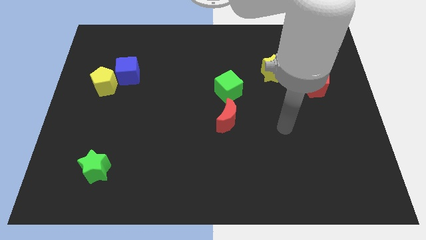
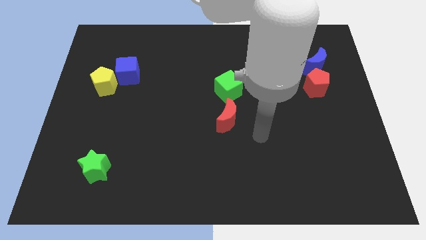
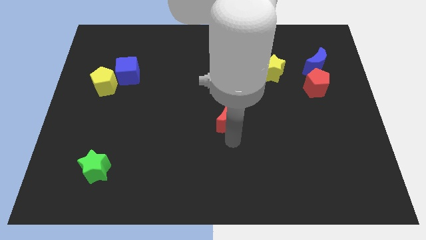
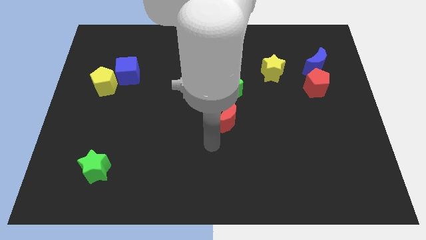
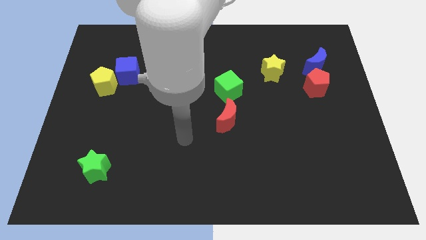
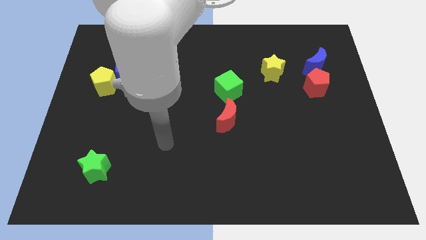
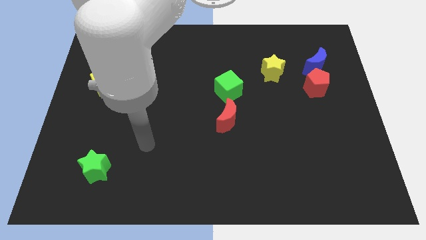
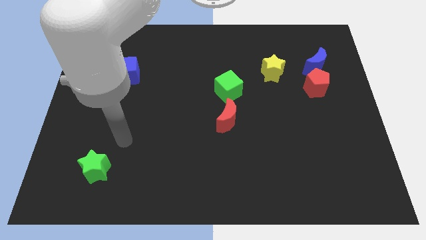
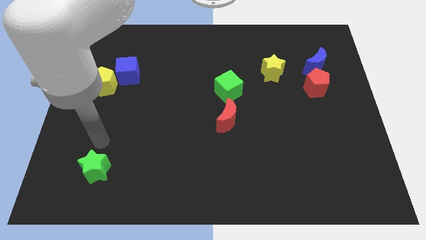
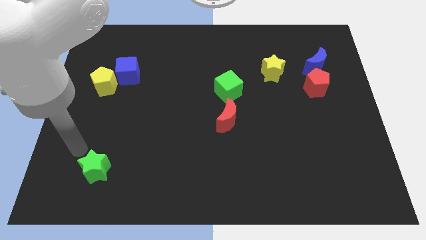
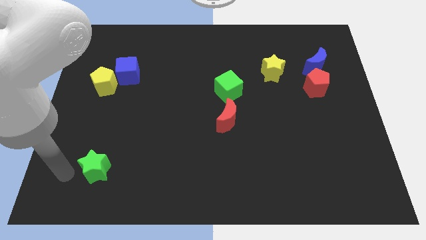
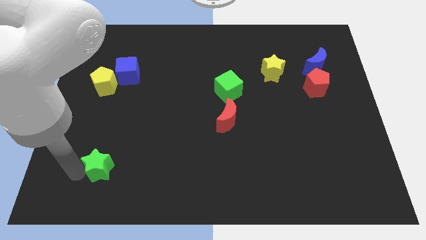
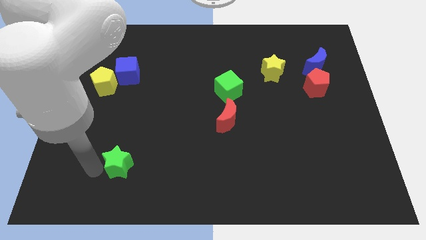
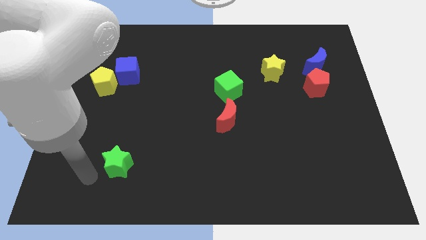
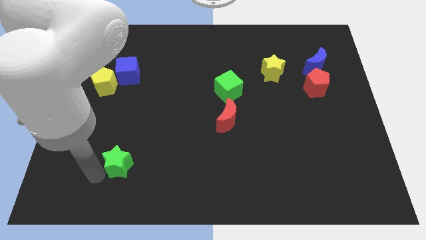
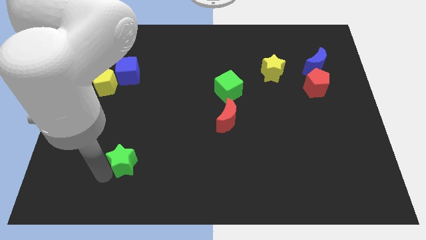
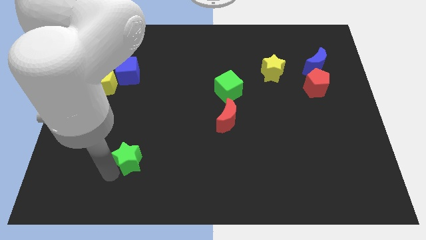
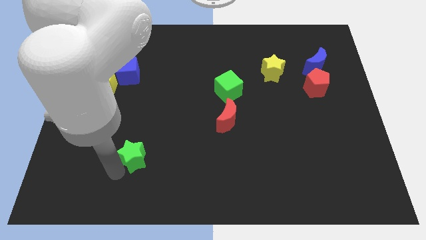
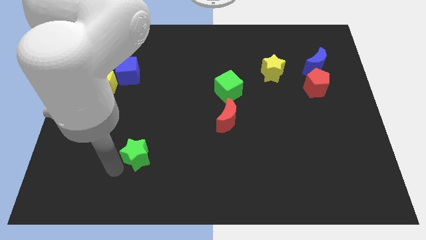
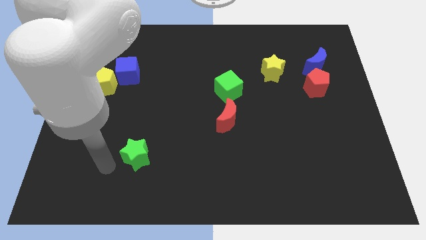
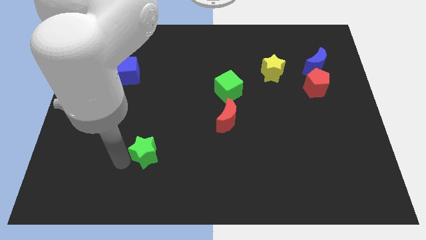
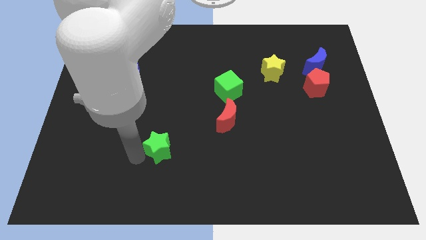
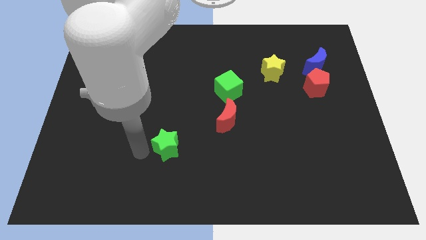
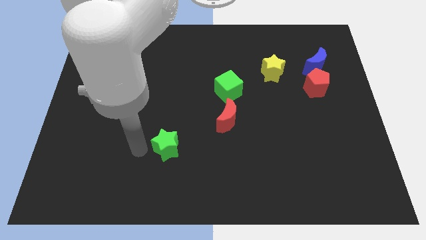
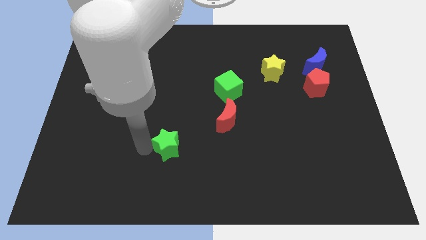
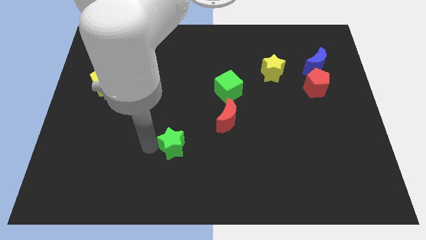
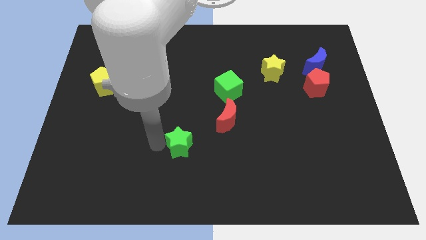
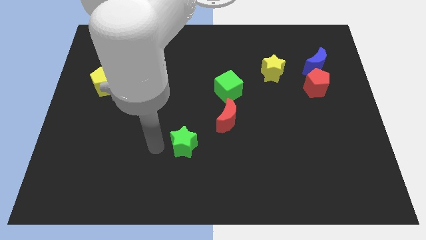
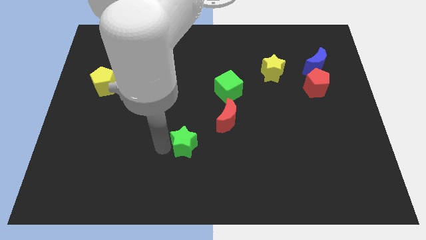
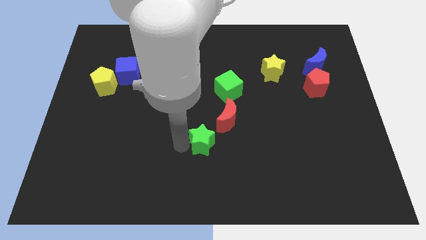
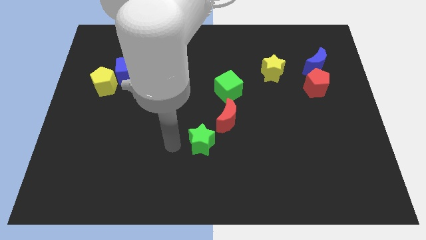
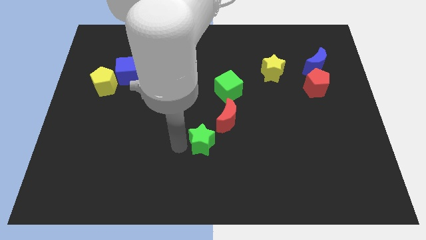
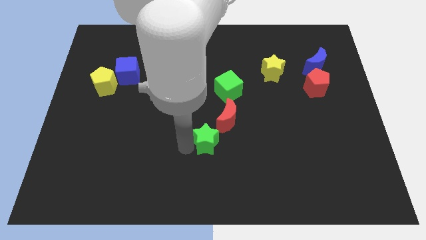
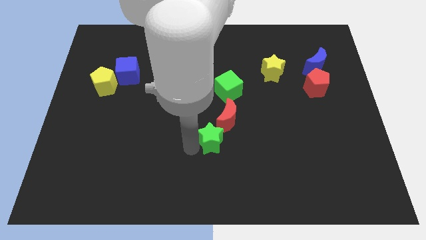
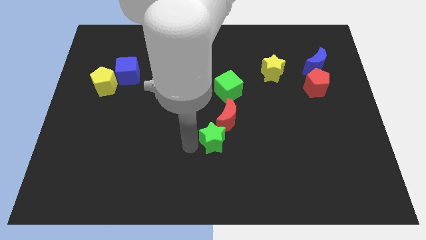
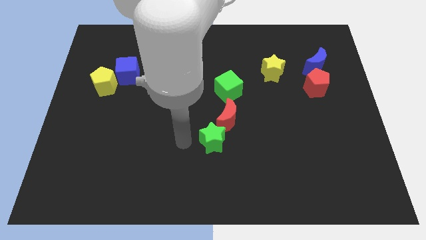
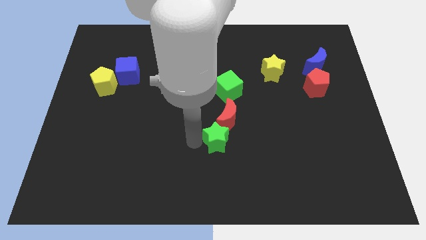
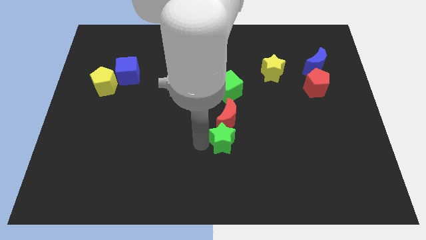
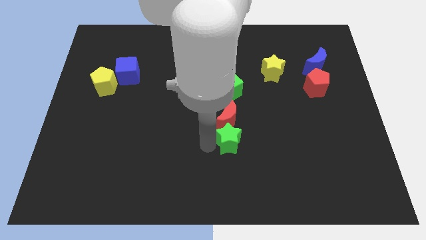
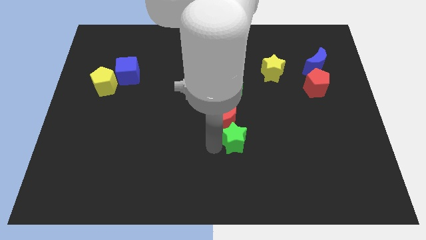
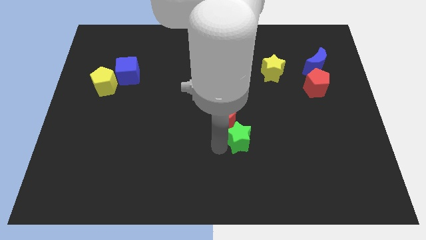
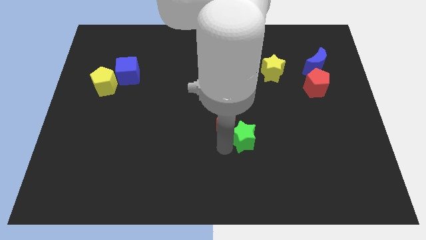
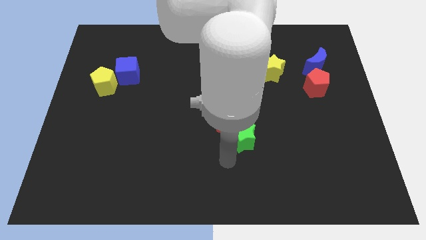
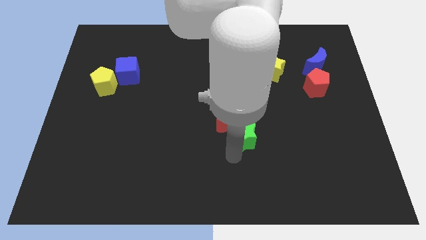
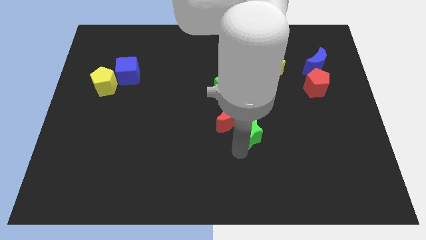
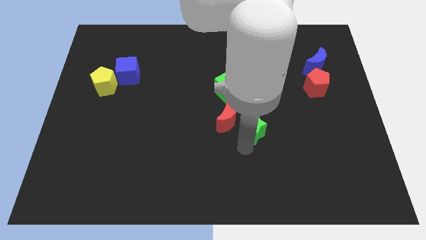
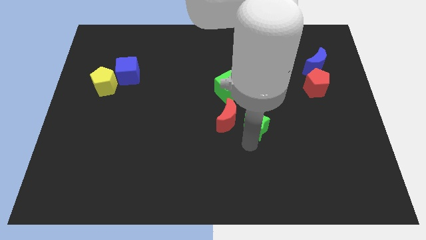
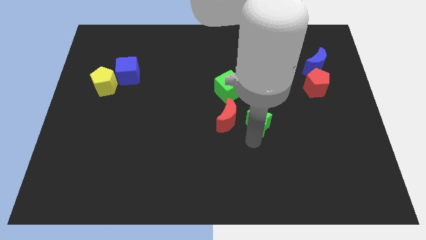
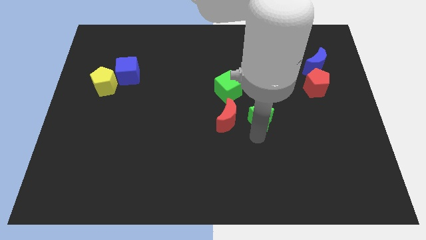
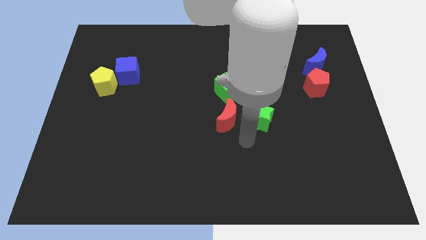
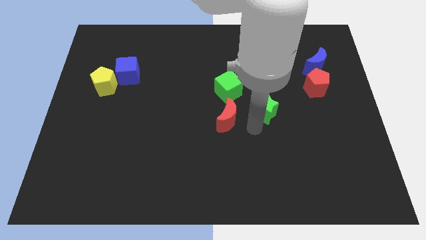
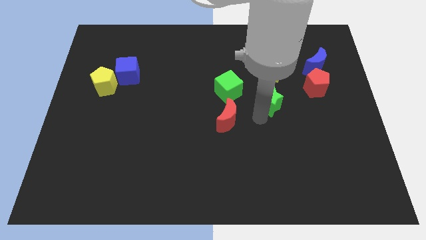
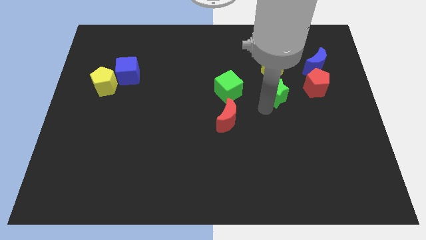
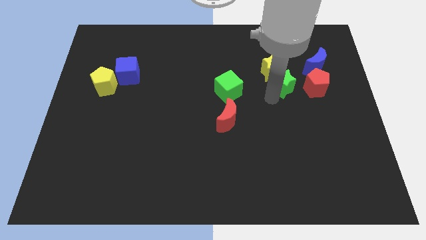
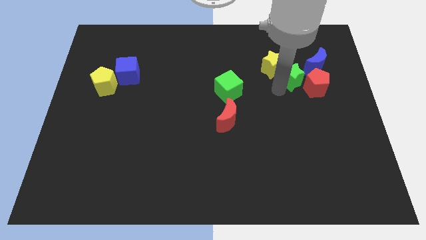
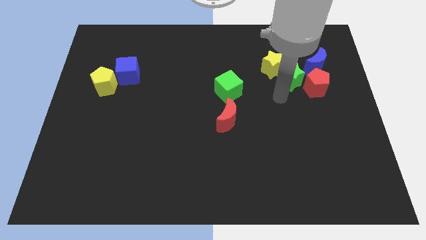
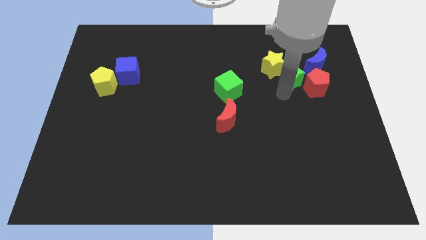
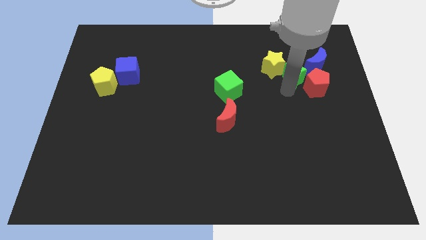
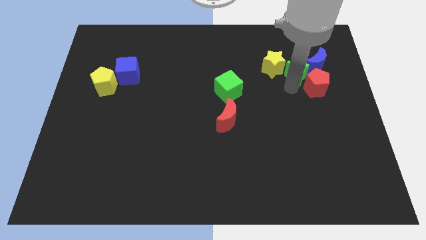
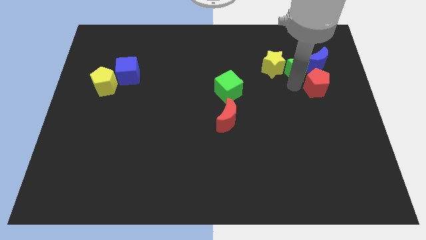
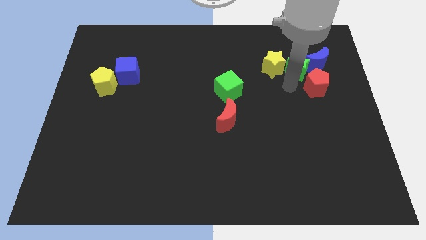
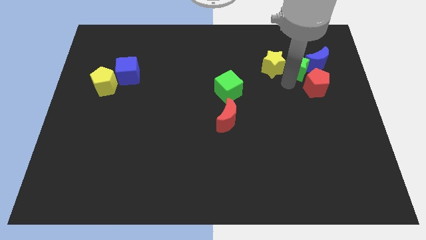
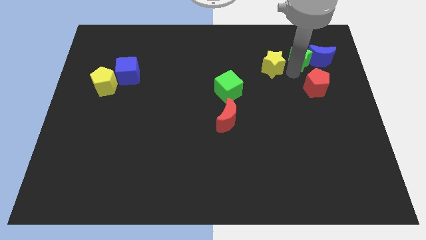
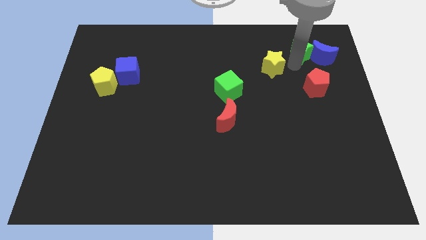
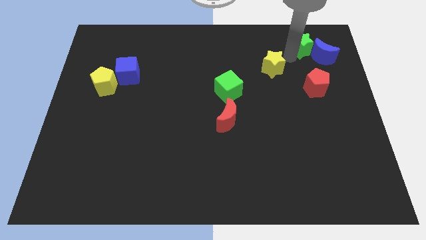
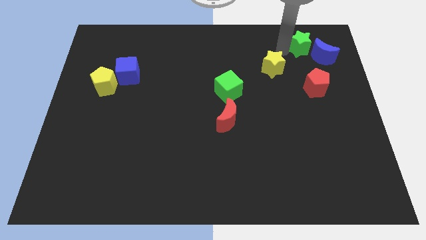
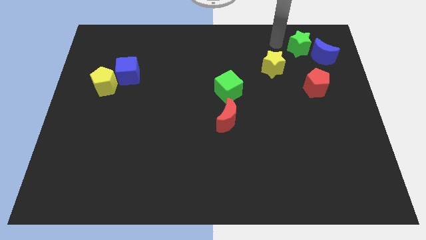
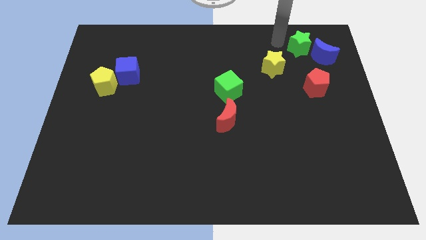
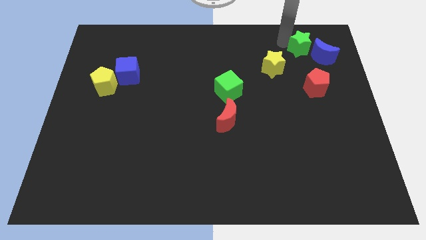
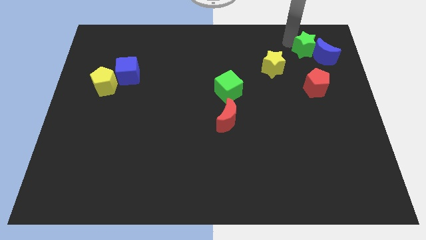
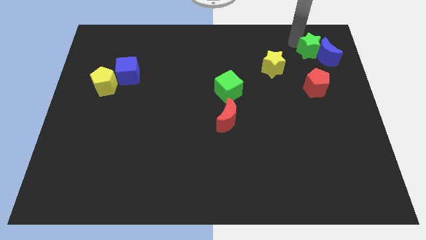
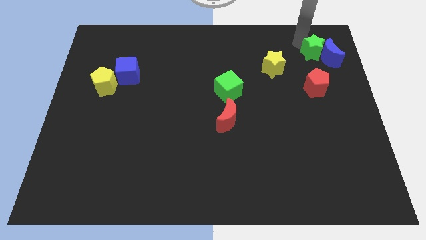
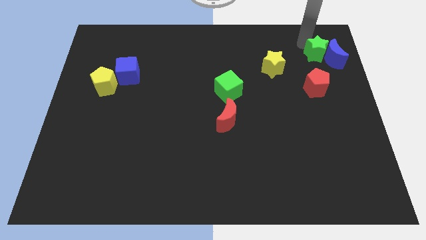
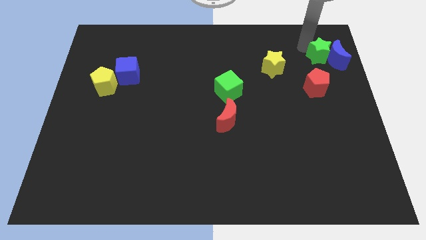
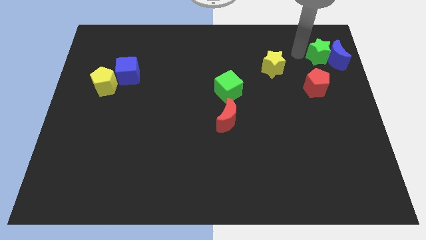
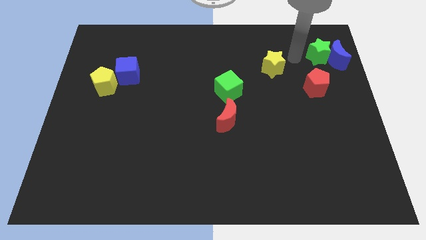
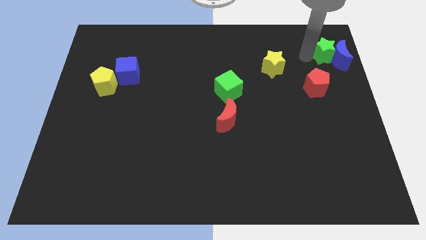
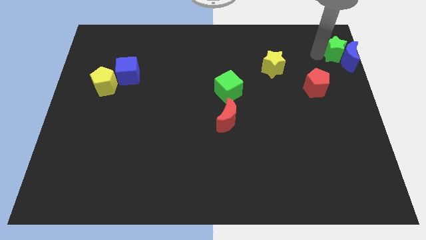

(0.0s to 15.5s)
slide the green star to the top right
